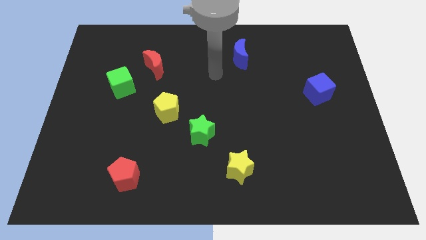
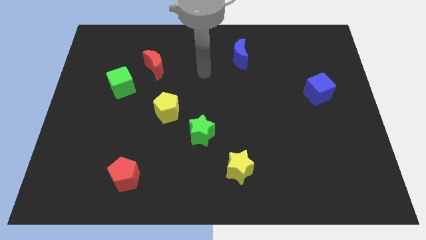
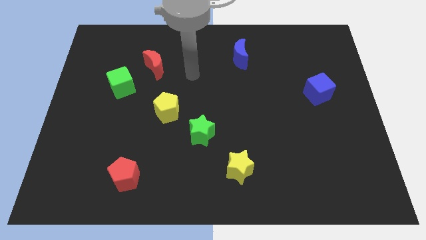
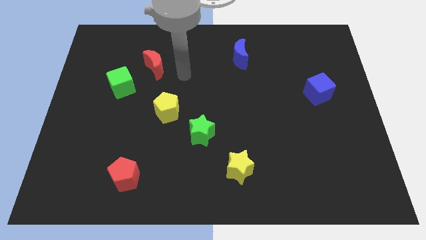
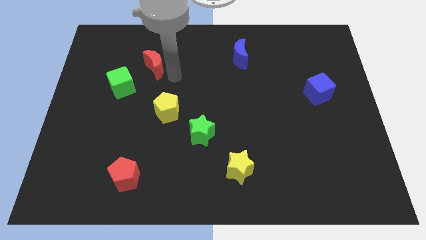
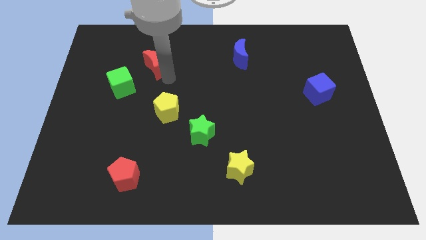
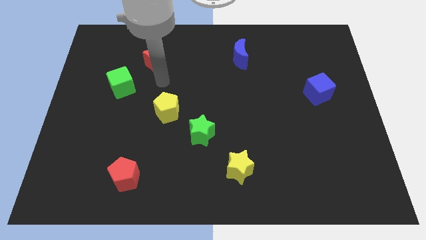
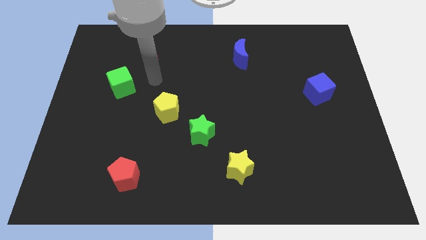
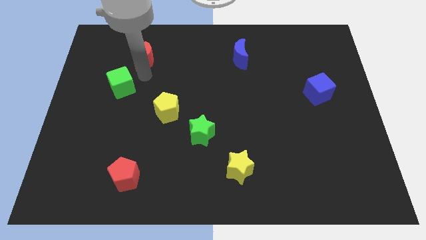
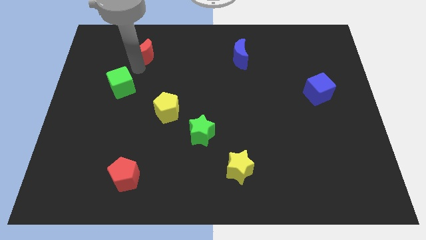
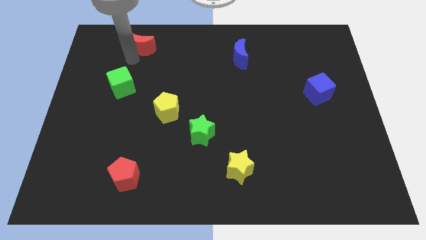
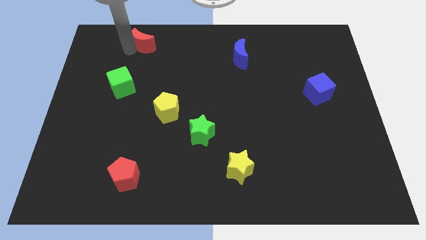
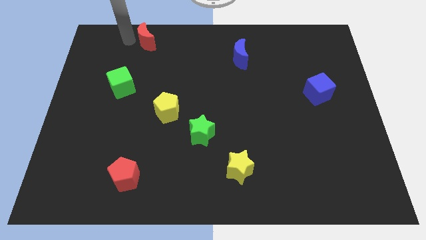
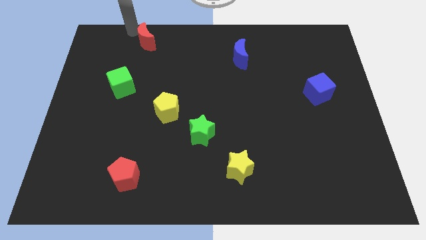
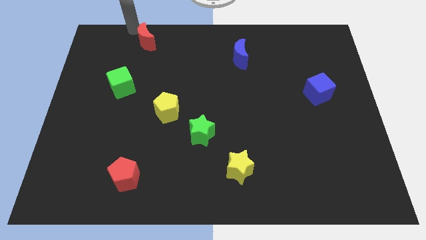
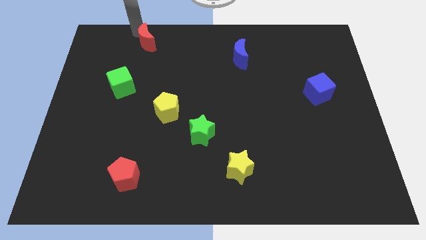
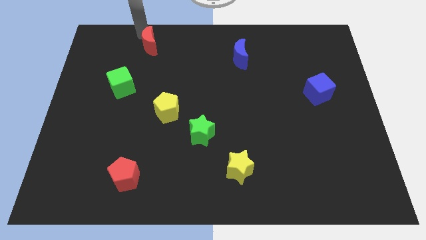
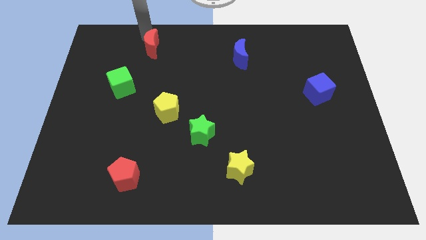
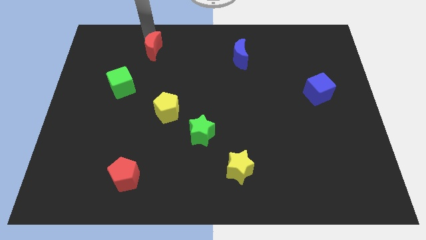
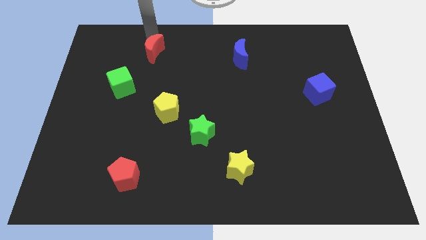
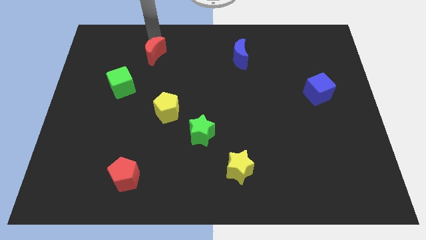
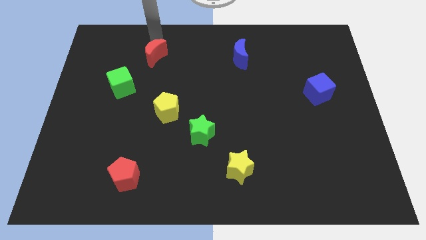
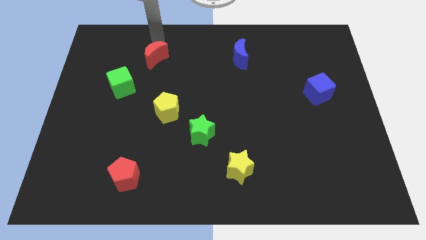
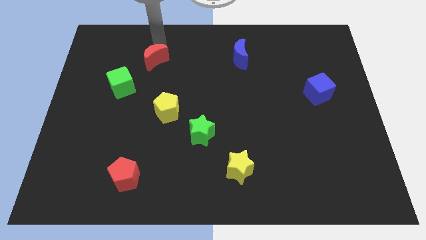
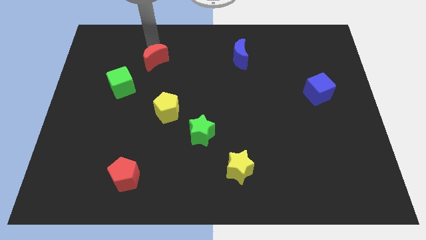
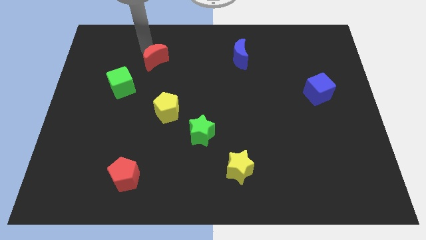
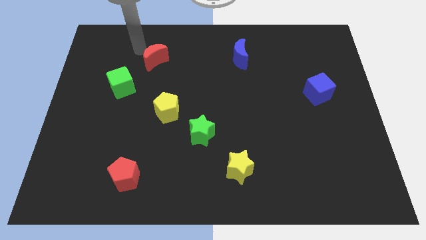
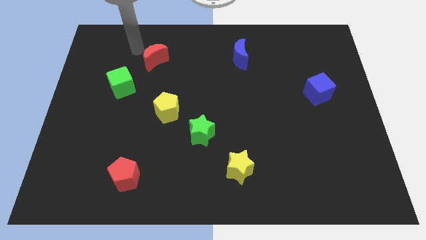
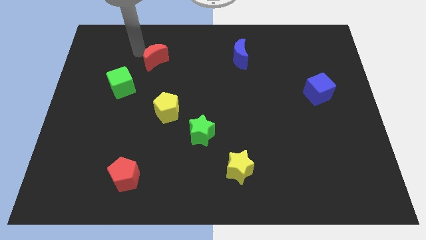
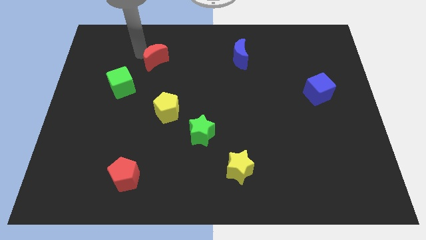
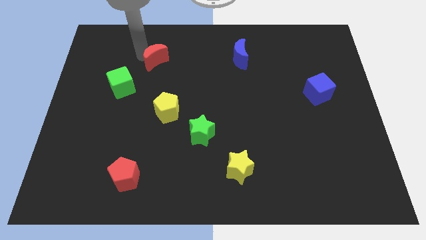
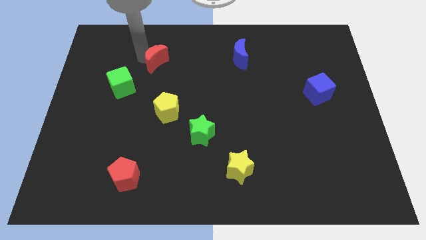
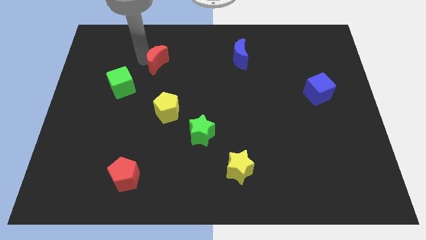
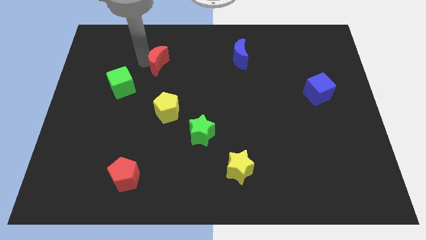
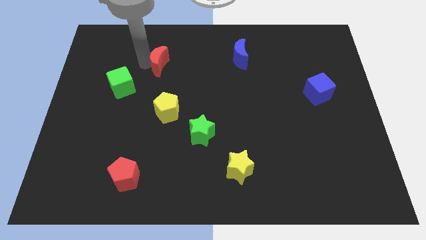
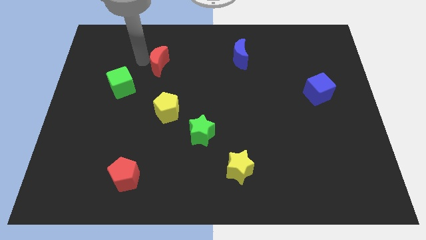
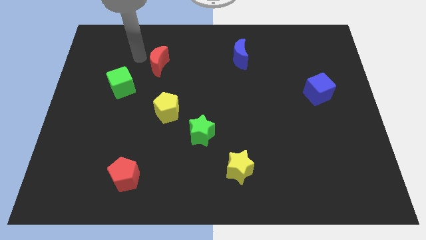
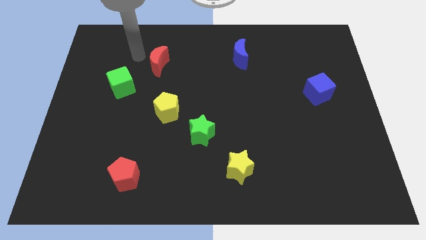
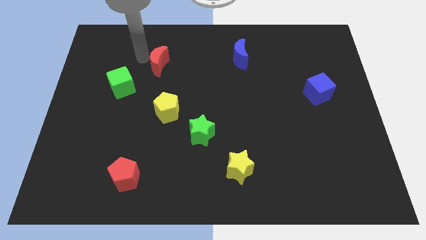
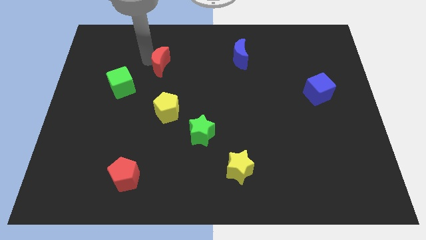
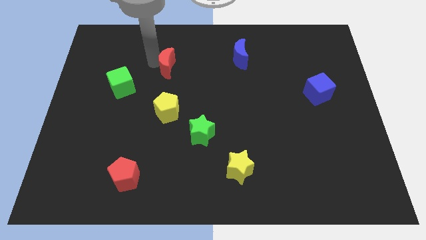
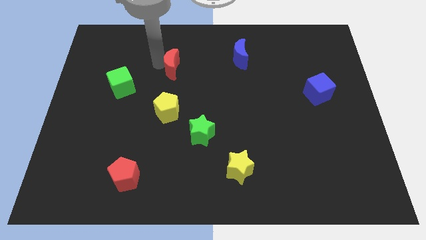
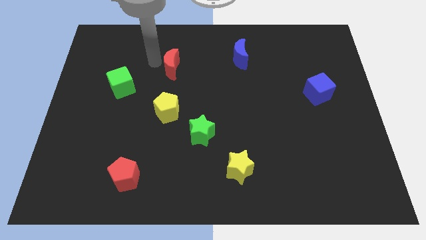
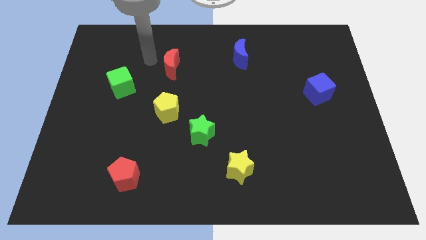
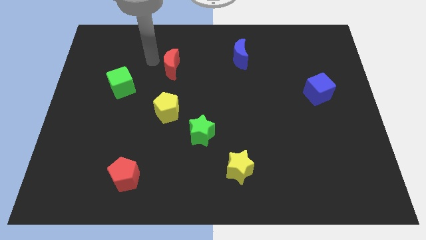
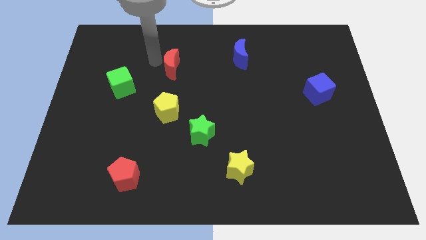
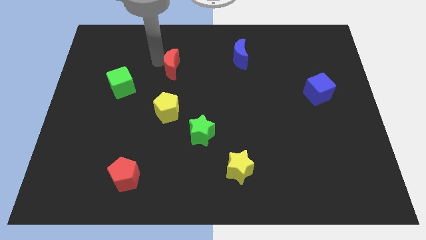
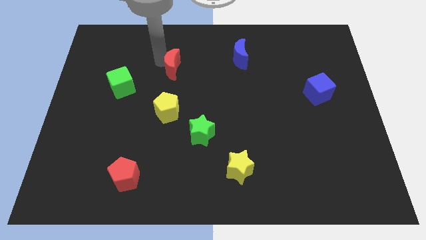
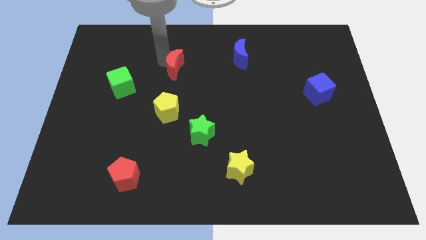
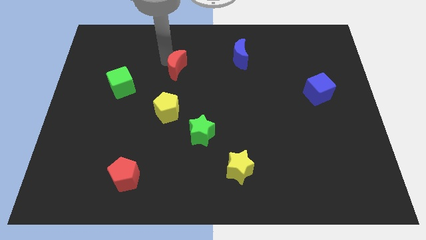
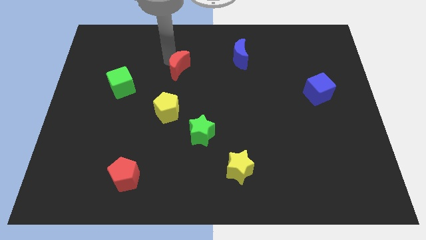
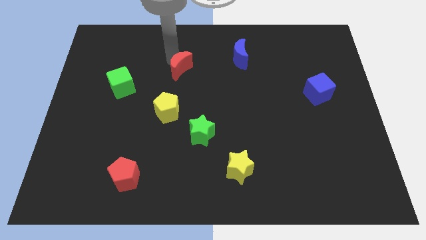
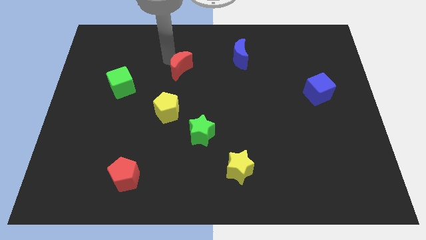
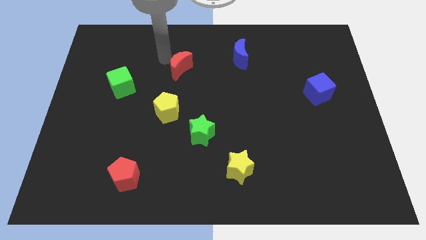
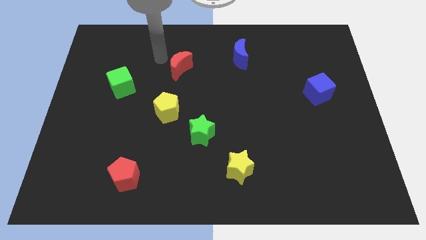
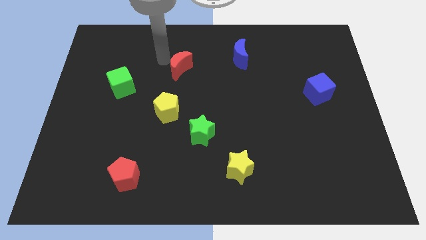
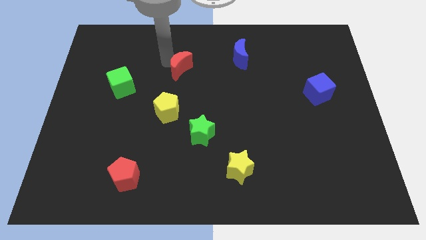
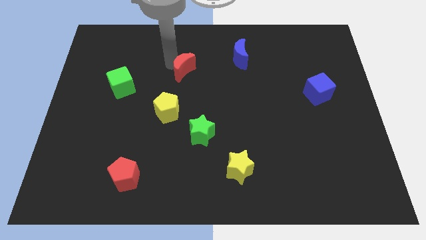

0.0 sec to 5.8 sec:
slide the red moon right somewhat

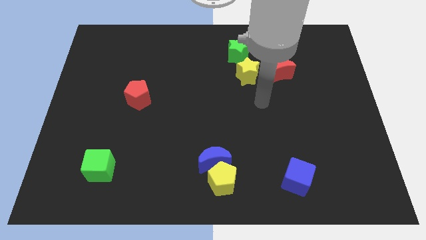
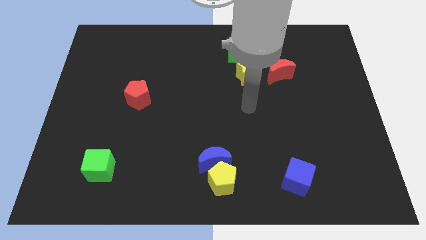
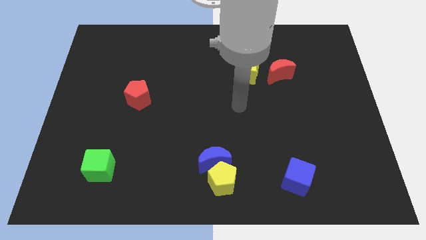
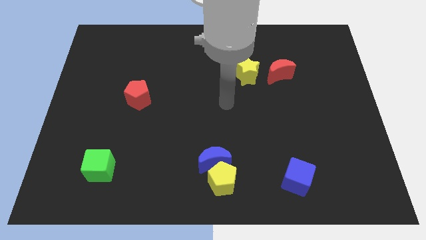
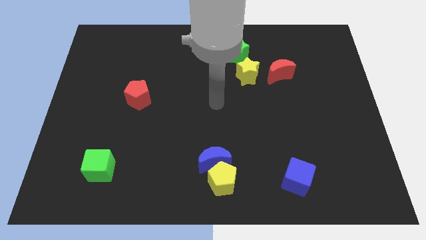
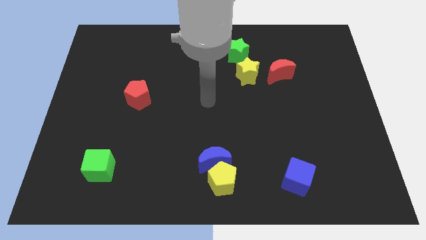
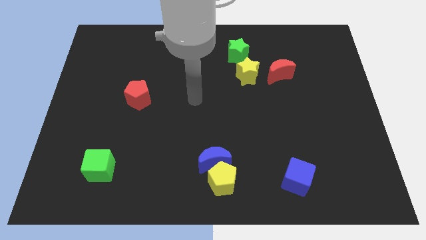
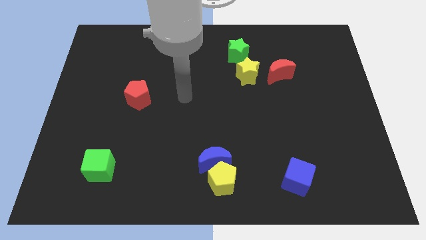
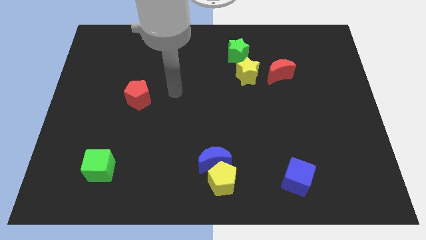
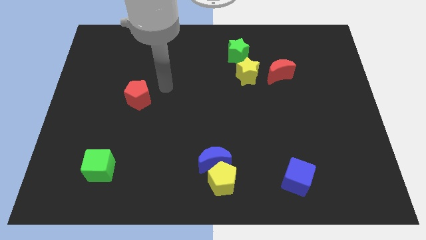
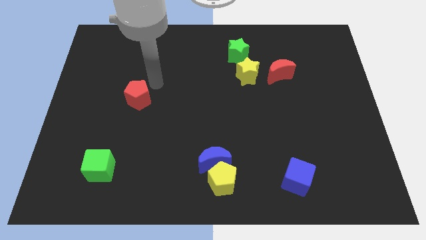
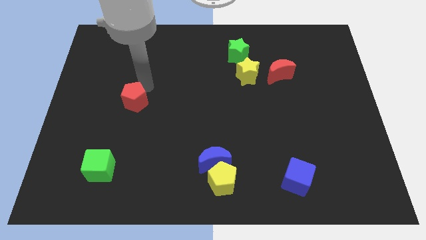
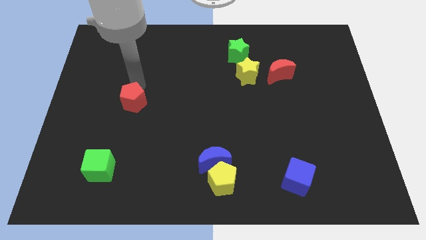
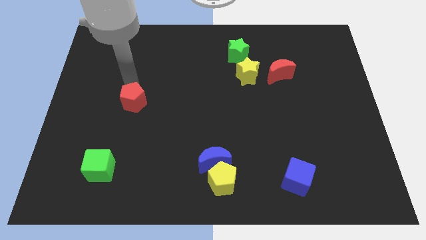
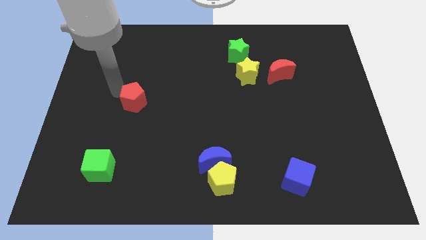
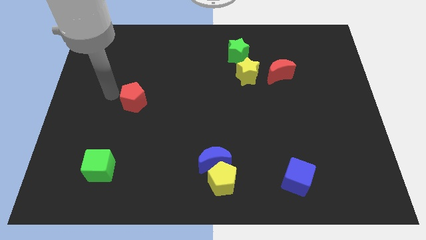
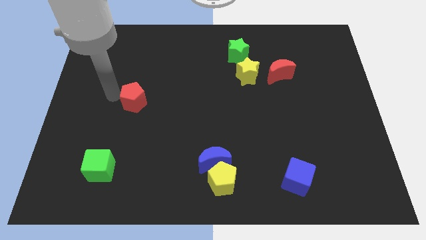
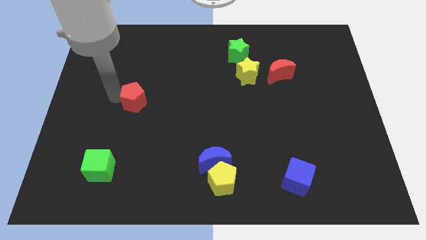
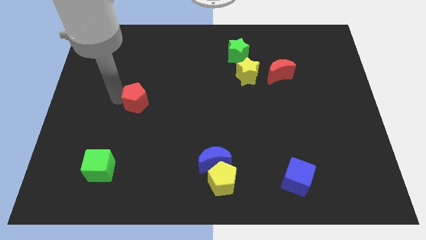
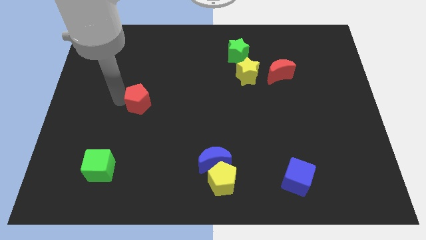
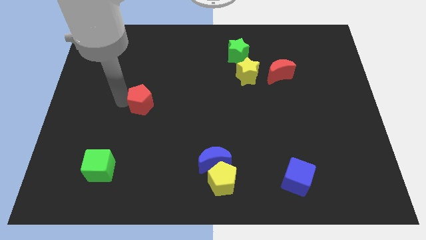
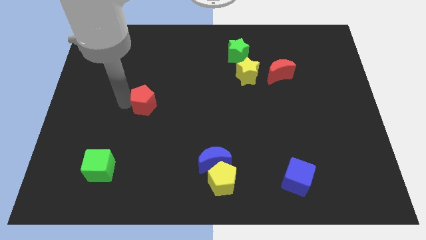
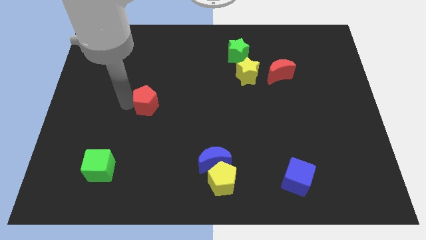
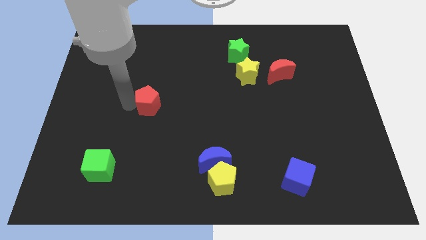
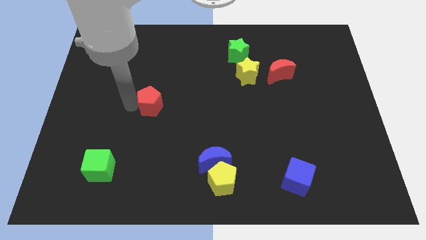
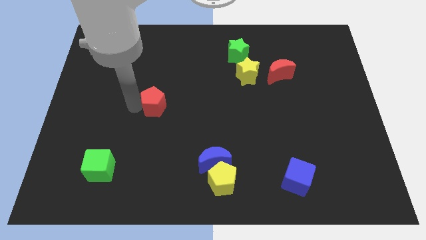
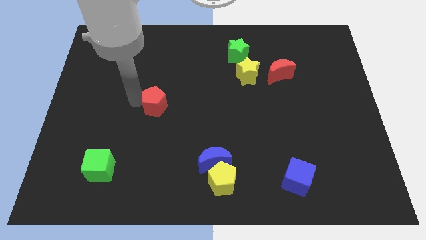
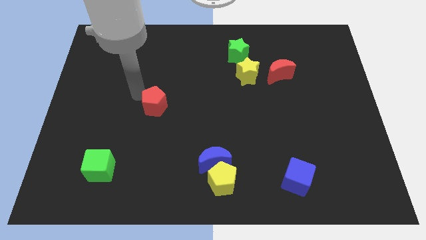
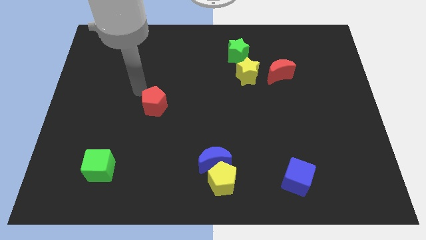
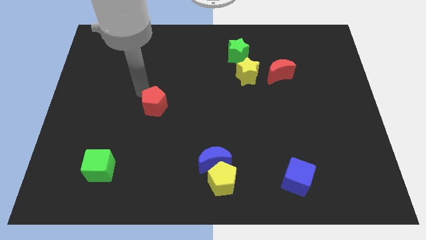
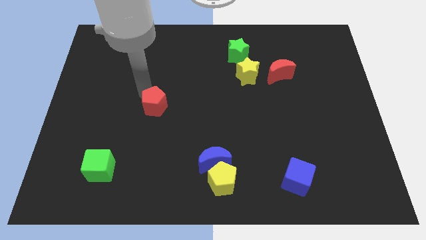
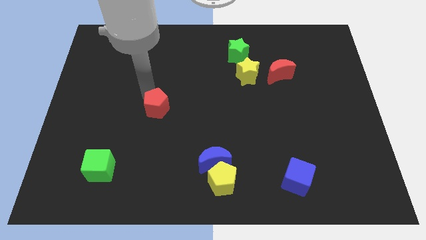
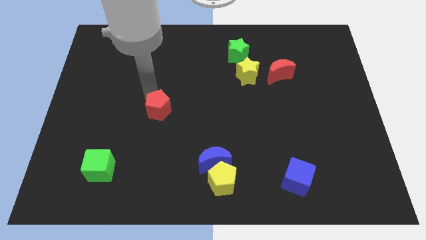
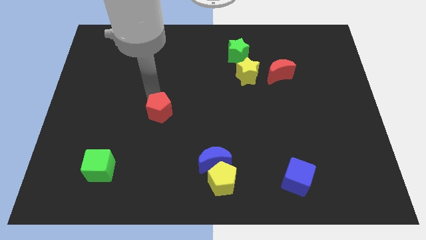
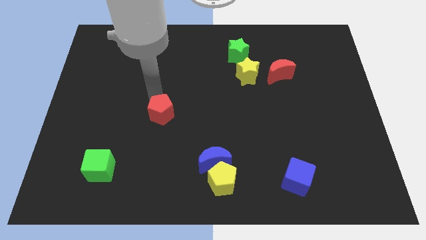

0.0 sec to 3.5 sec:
slightly push the red pentagon downwards and right
